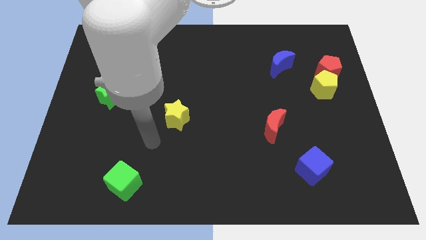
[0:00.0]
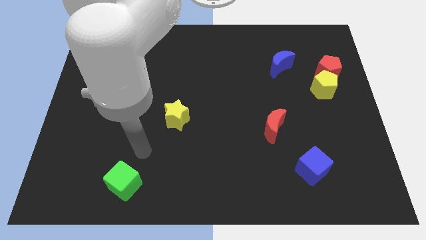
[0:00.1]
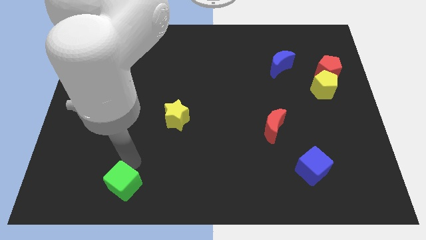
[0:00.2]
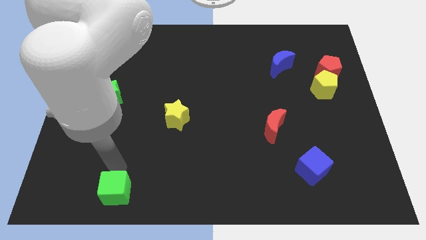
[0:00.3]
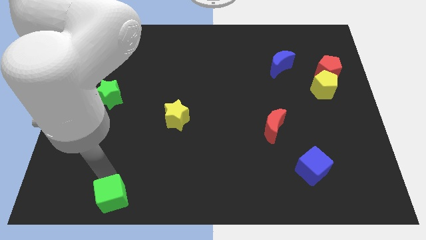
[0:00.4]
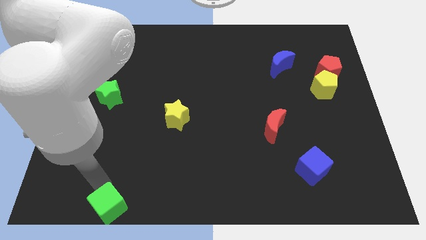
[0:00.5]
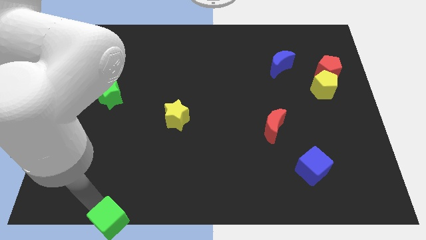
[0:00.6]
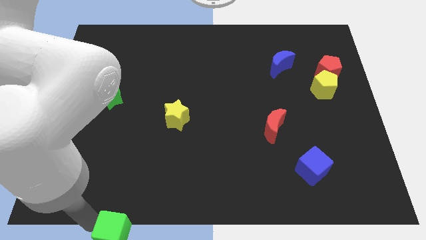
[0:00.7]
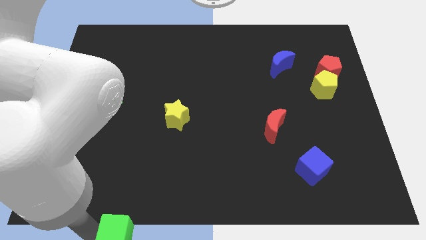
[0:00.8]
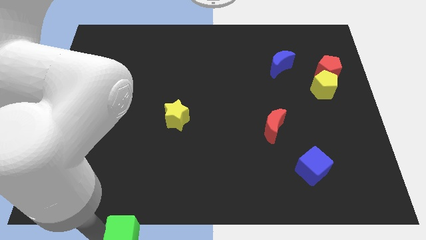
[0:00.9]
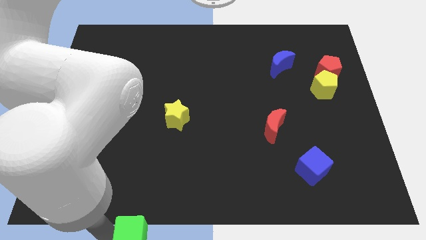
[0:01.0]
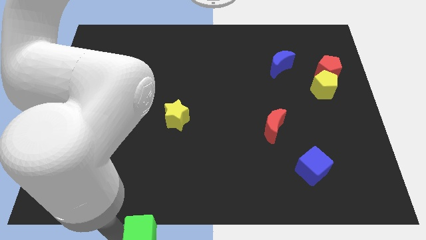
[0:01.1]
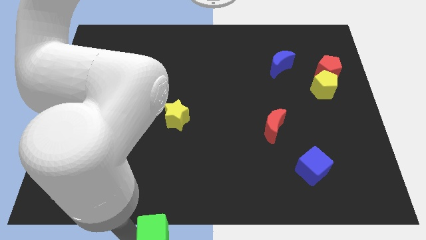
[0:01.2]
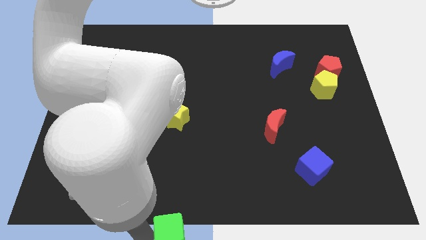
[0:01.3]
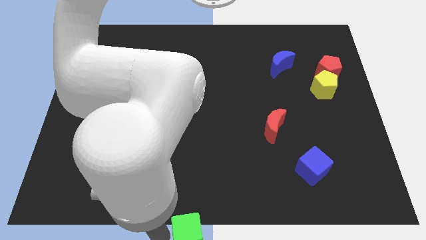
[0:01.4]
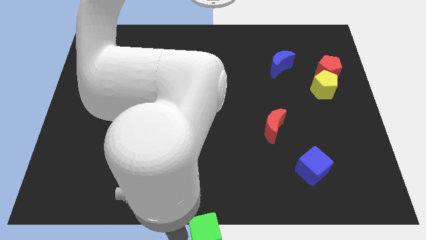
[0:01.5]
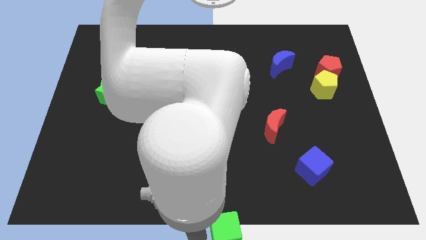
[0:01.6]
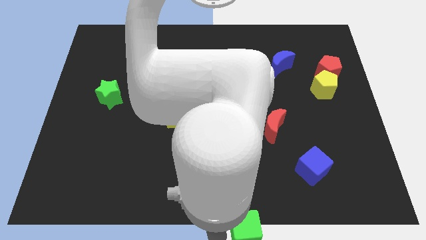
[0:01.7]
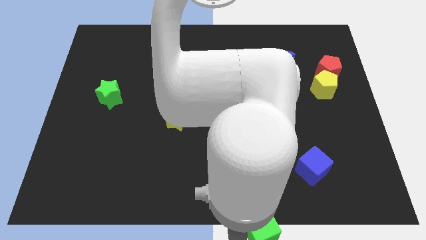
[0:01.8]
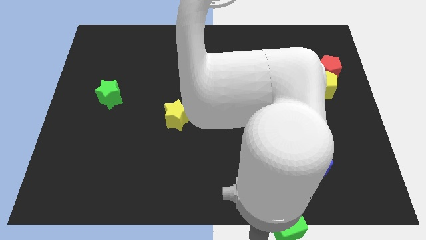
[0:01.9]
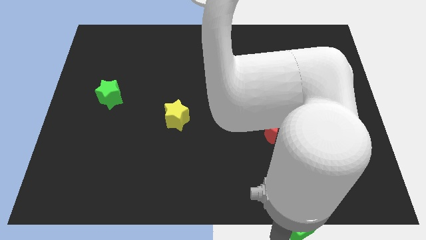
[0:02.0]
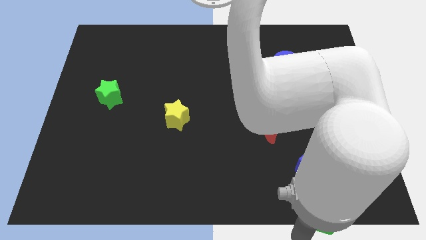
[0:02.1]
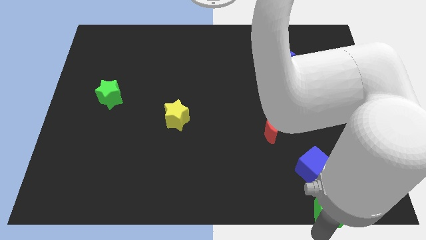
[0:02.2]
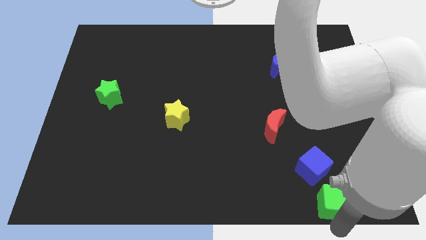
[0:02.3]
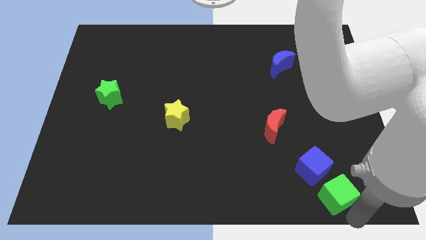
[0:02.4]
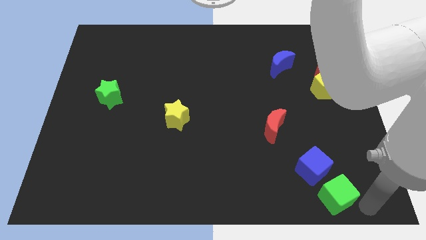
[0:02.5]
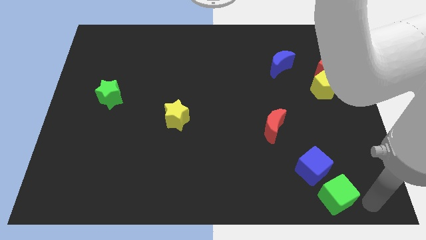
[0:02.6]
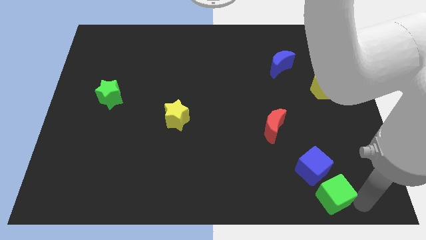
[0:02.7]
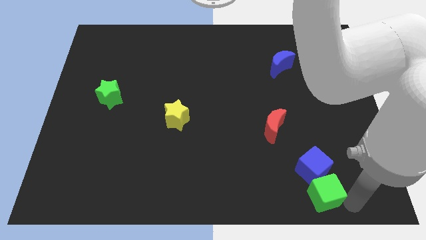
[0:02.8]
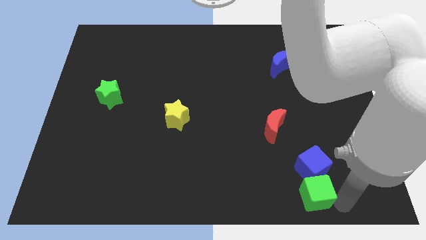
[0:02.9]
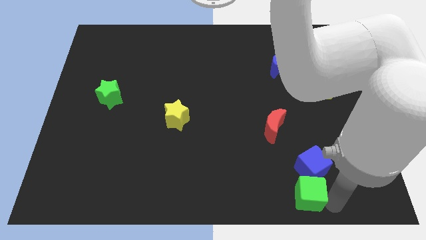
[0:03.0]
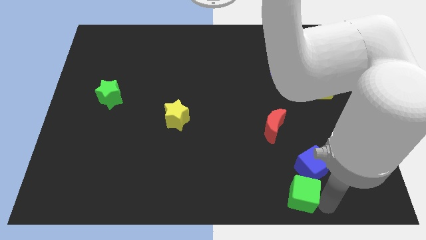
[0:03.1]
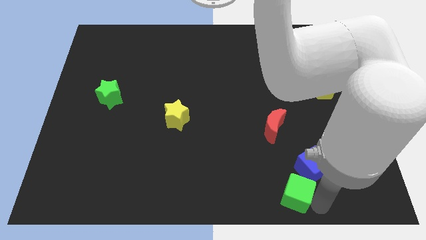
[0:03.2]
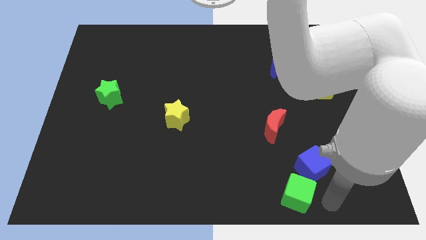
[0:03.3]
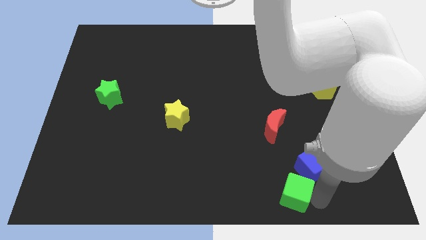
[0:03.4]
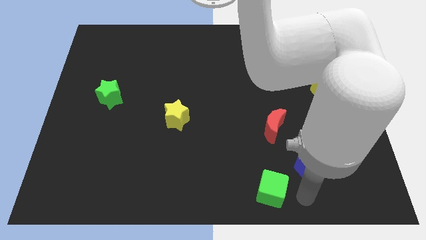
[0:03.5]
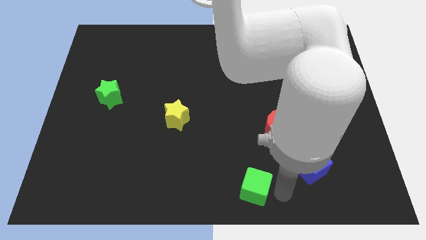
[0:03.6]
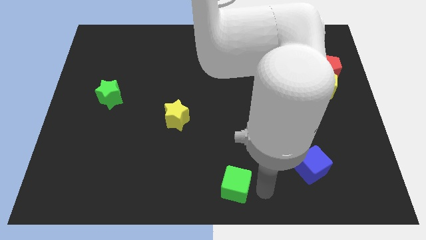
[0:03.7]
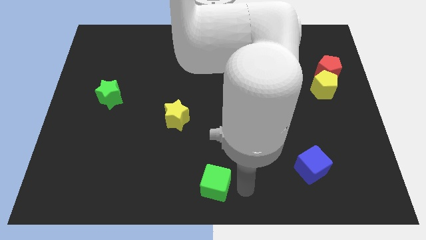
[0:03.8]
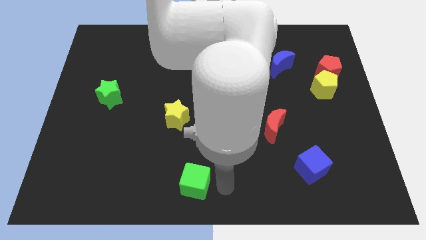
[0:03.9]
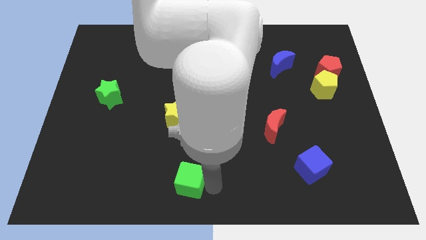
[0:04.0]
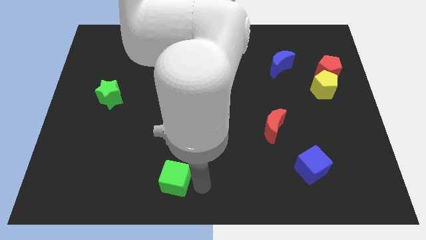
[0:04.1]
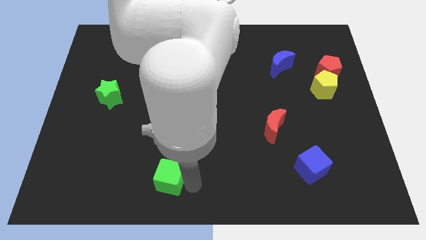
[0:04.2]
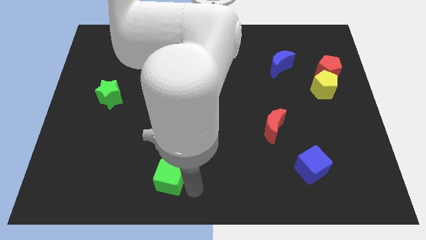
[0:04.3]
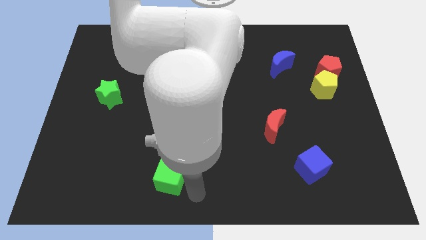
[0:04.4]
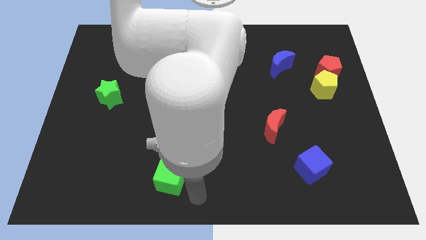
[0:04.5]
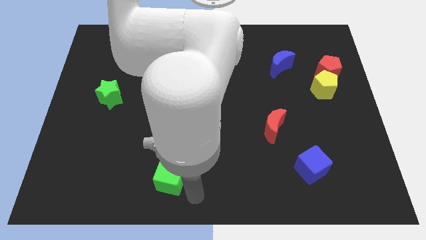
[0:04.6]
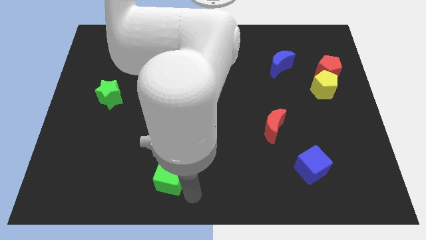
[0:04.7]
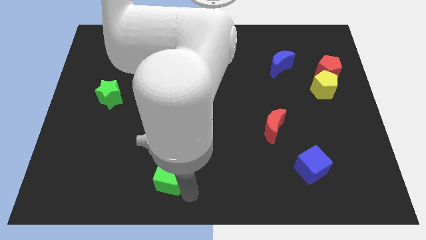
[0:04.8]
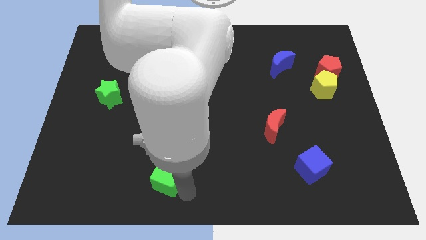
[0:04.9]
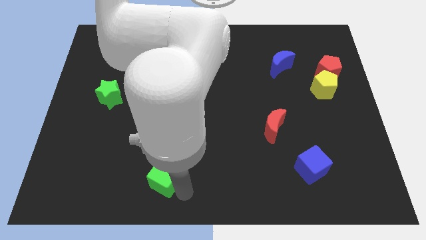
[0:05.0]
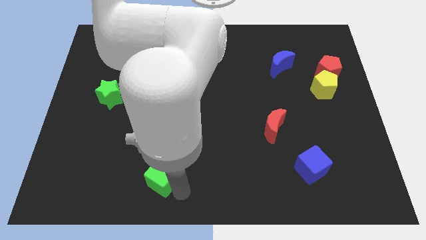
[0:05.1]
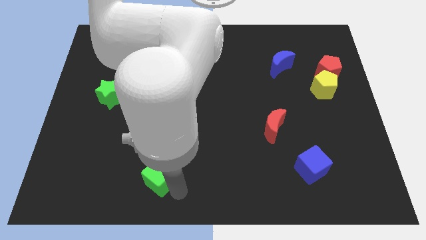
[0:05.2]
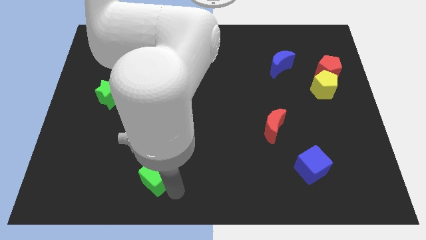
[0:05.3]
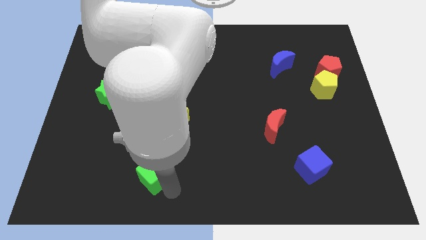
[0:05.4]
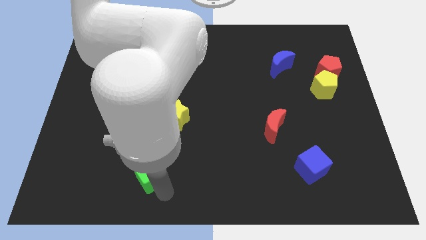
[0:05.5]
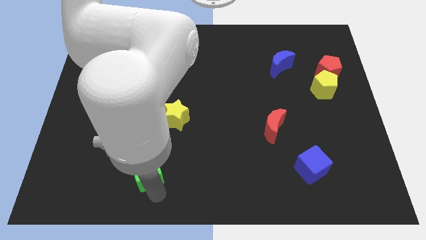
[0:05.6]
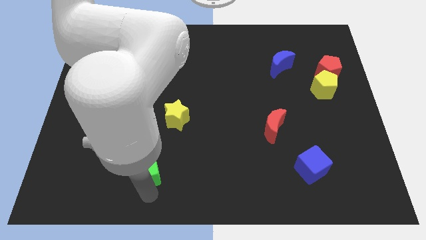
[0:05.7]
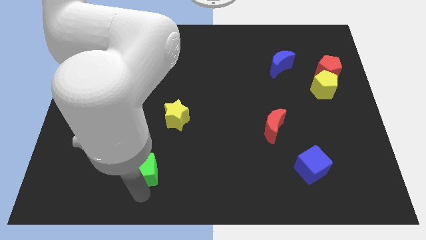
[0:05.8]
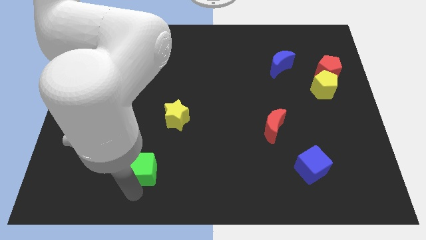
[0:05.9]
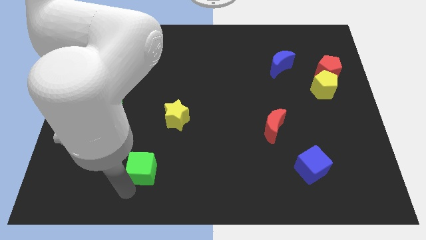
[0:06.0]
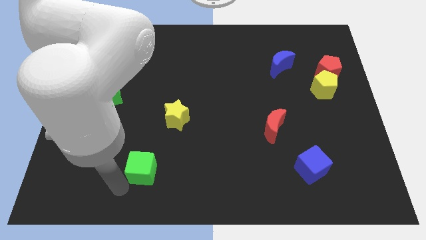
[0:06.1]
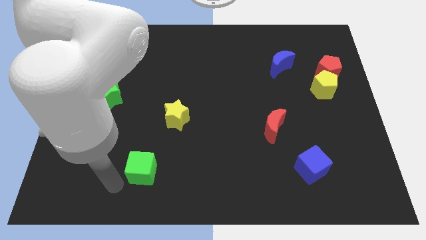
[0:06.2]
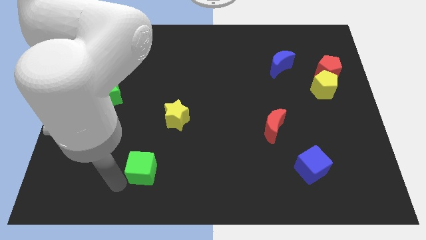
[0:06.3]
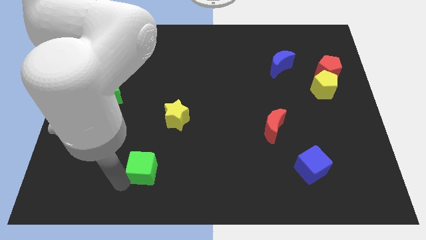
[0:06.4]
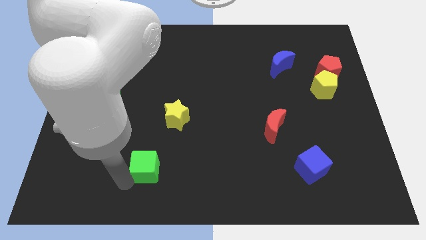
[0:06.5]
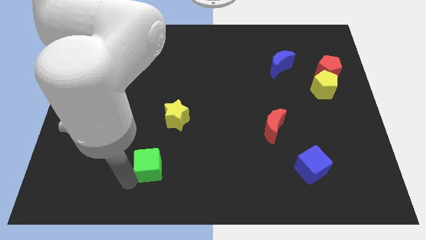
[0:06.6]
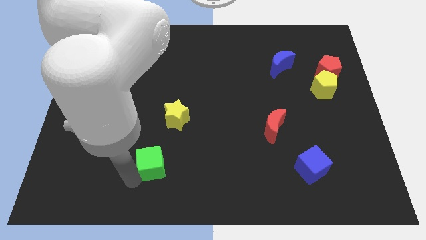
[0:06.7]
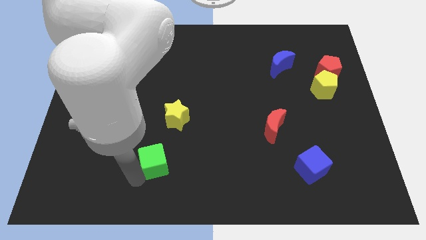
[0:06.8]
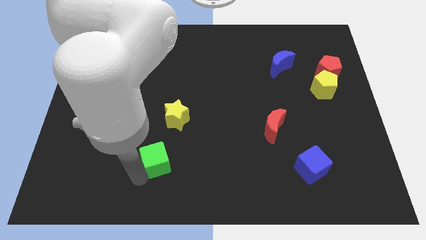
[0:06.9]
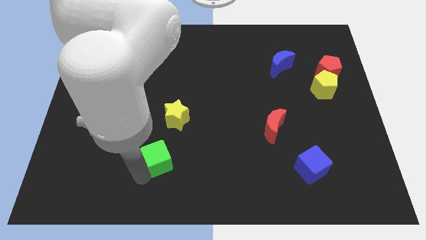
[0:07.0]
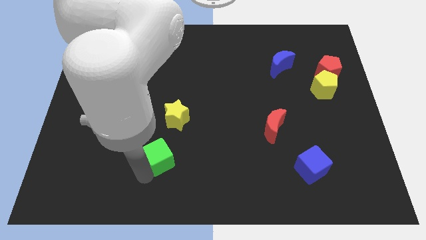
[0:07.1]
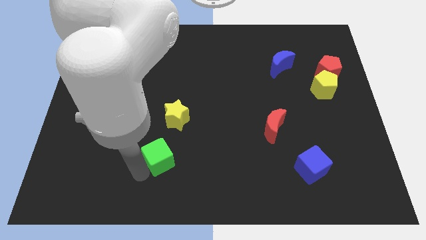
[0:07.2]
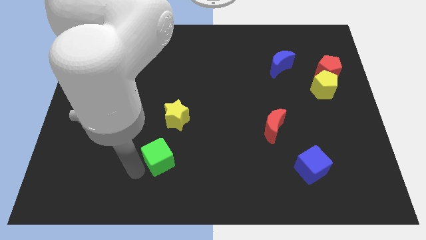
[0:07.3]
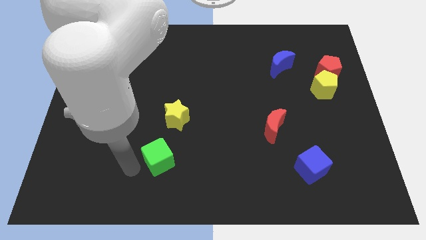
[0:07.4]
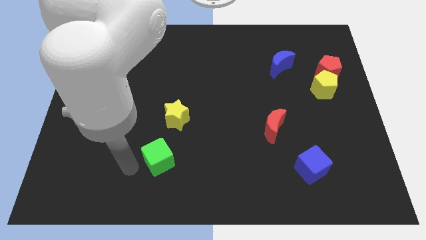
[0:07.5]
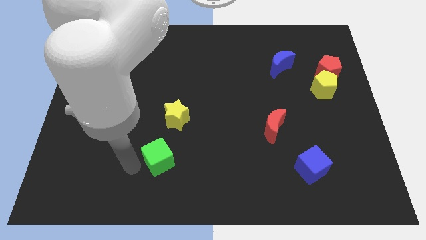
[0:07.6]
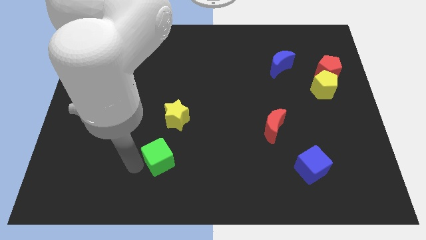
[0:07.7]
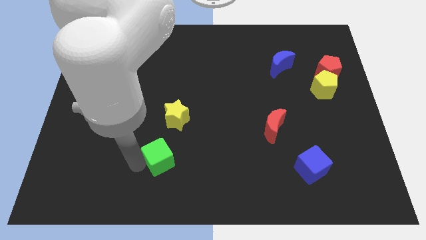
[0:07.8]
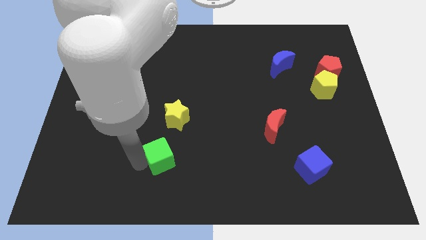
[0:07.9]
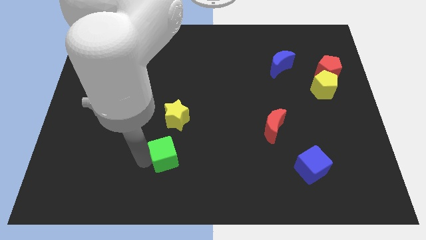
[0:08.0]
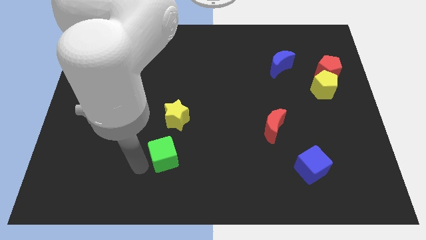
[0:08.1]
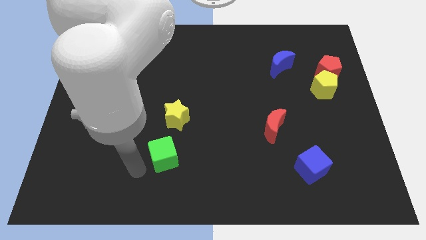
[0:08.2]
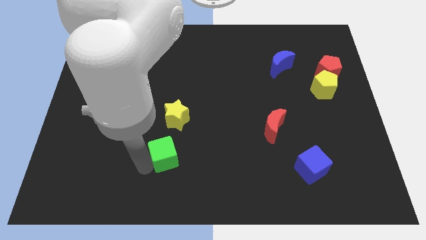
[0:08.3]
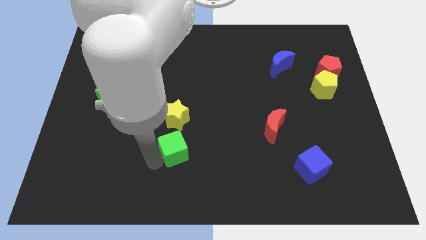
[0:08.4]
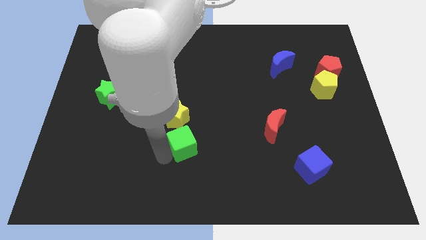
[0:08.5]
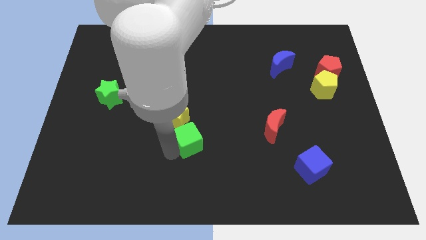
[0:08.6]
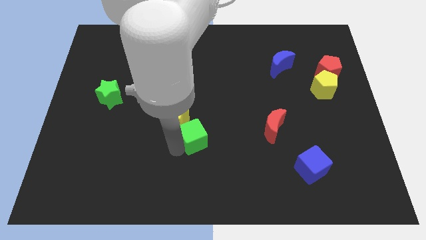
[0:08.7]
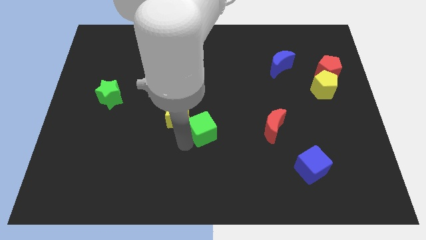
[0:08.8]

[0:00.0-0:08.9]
slide the green cube to the left side of the red moon
